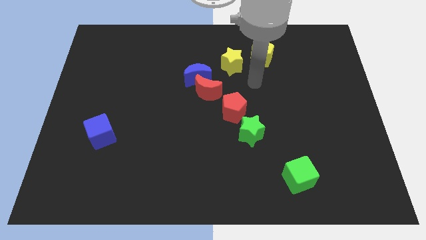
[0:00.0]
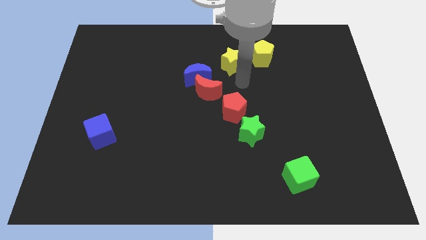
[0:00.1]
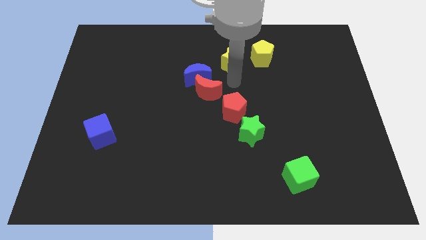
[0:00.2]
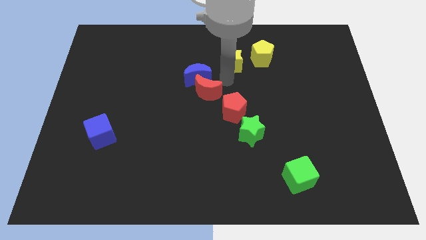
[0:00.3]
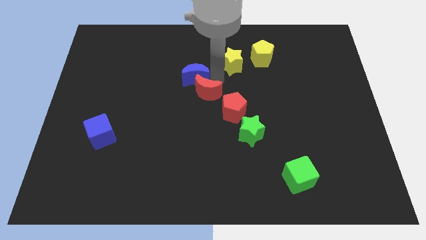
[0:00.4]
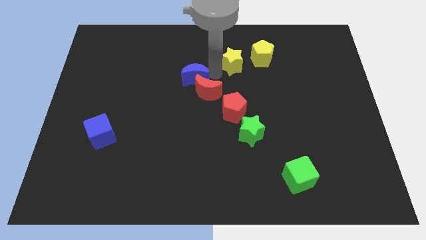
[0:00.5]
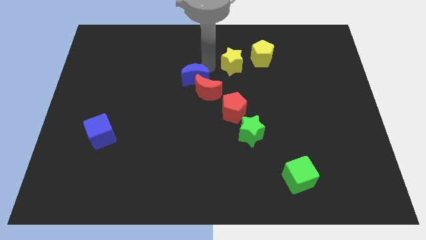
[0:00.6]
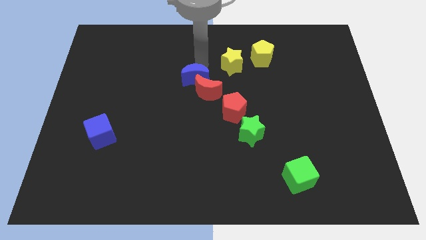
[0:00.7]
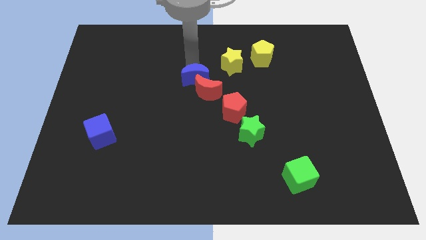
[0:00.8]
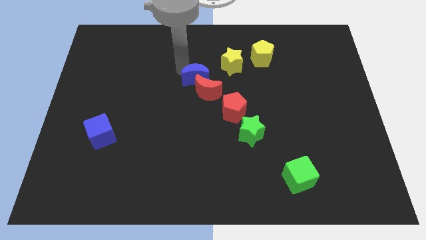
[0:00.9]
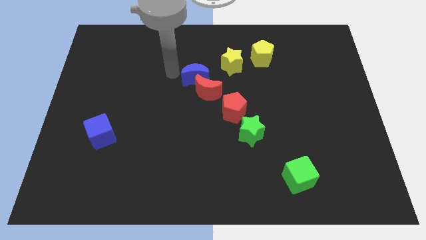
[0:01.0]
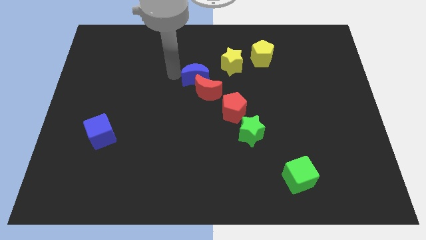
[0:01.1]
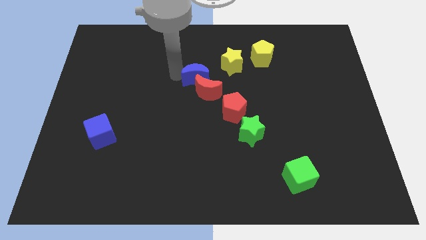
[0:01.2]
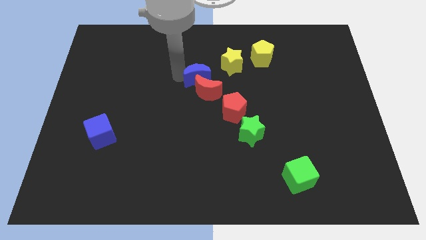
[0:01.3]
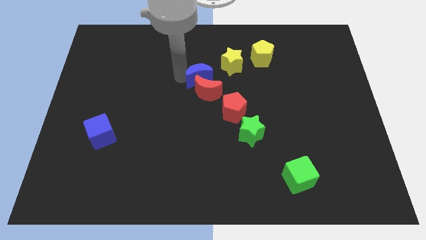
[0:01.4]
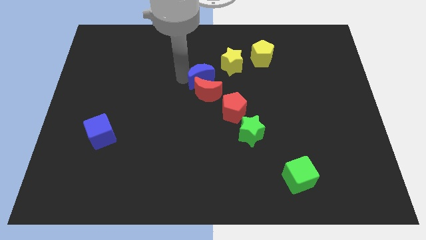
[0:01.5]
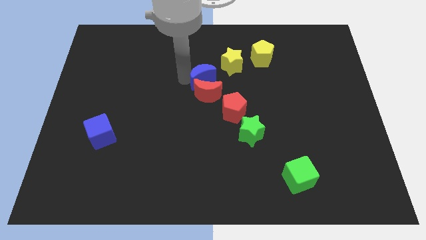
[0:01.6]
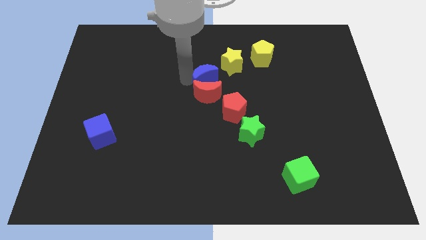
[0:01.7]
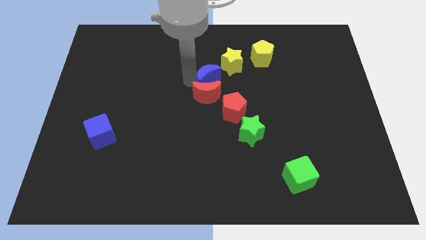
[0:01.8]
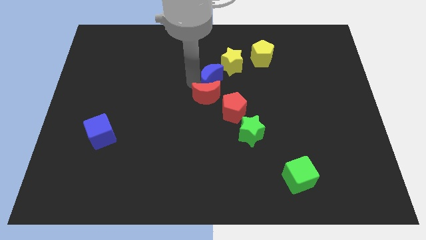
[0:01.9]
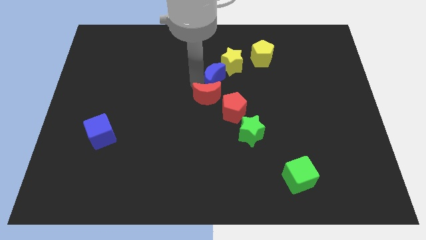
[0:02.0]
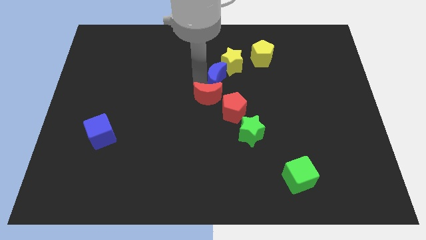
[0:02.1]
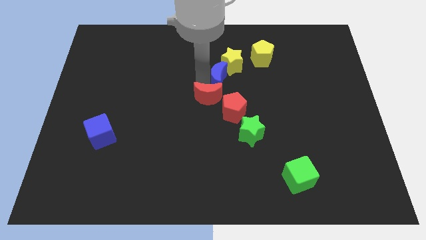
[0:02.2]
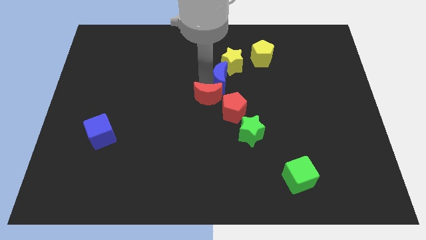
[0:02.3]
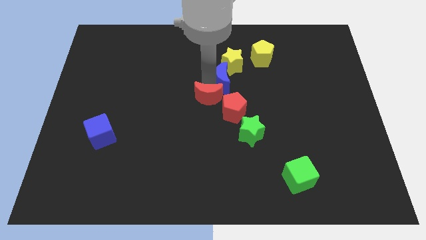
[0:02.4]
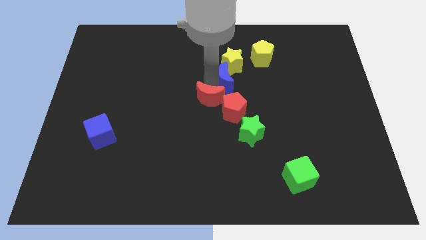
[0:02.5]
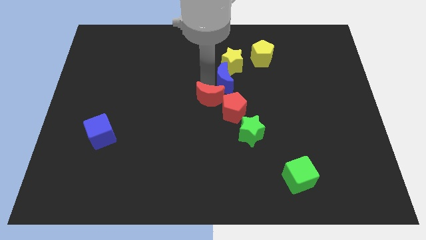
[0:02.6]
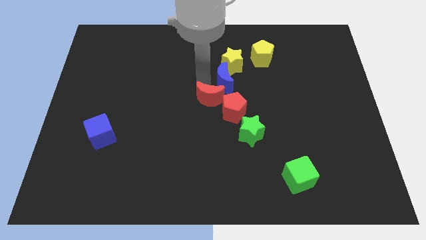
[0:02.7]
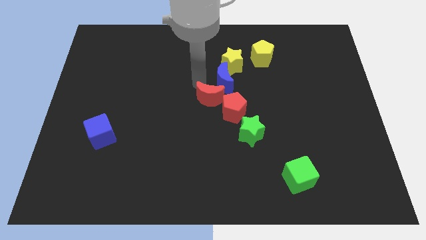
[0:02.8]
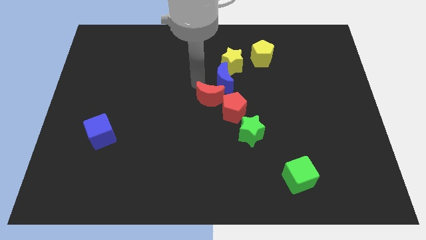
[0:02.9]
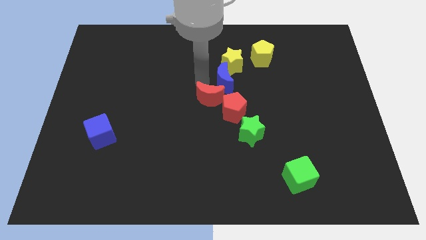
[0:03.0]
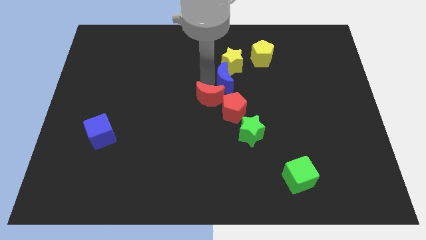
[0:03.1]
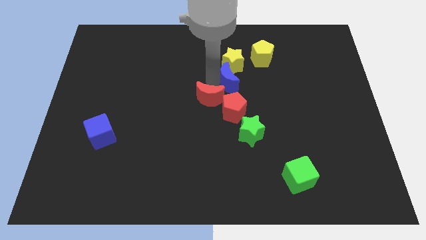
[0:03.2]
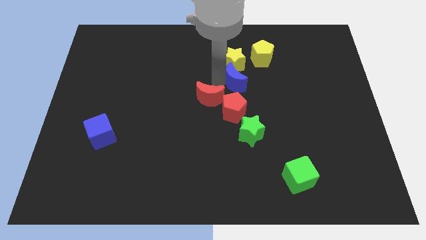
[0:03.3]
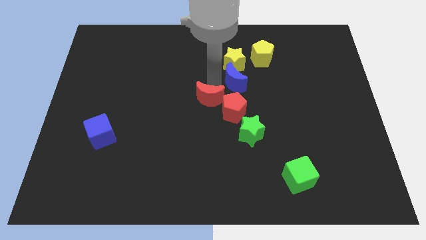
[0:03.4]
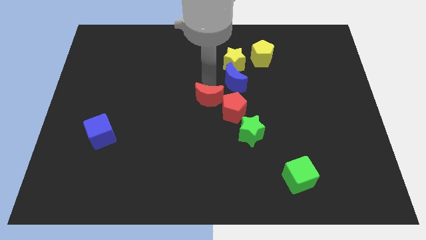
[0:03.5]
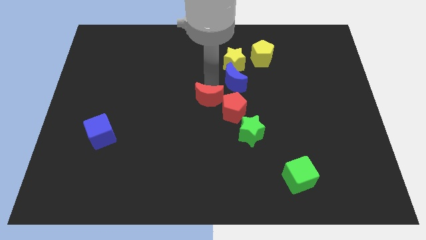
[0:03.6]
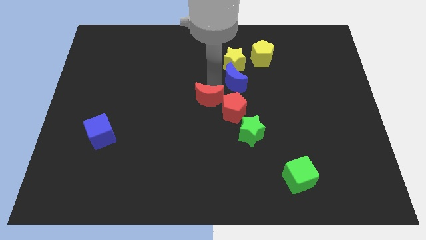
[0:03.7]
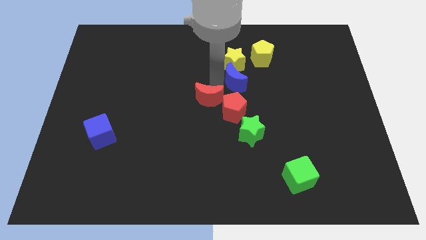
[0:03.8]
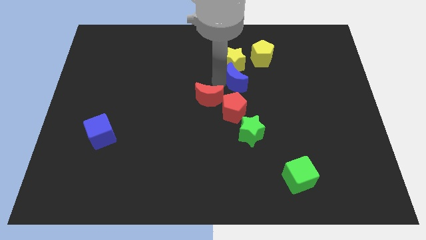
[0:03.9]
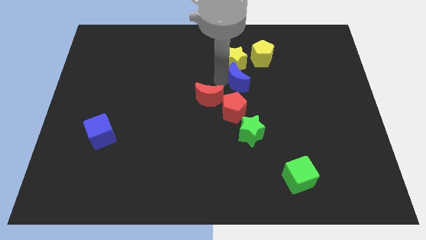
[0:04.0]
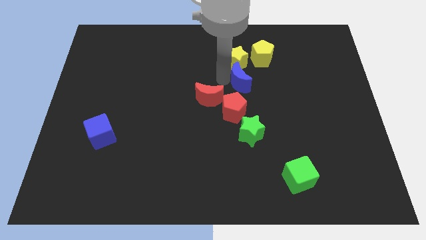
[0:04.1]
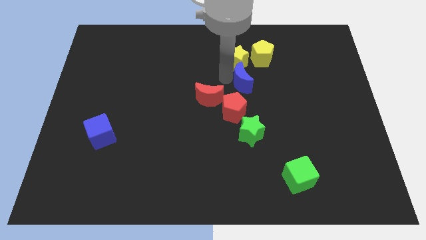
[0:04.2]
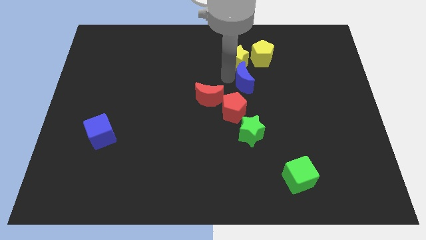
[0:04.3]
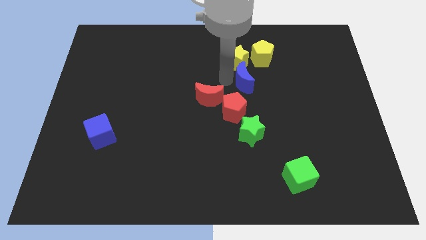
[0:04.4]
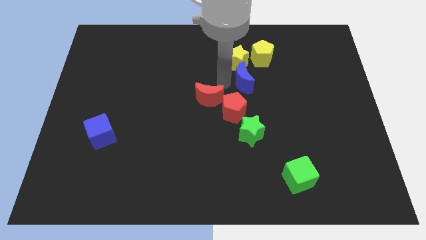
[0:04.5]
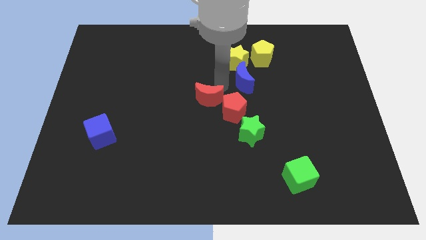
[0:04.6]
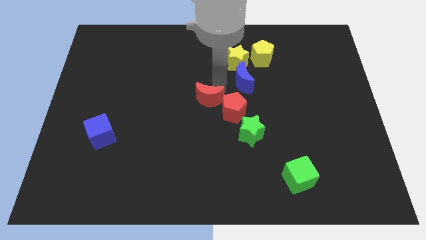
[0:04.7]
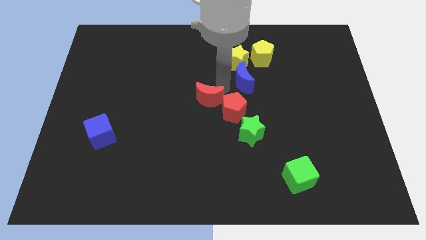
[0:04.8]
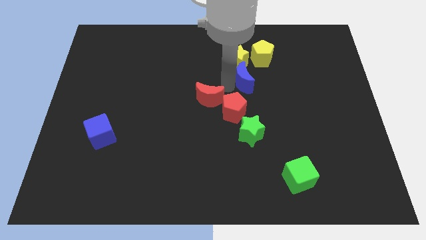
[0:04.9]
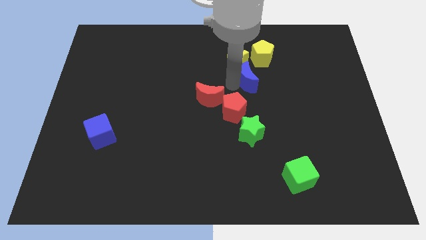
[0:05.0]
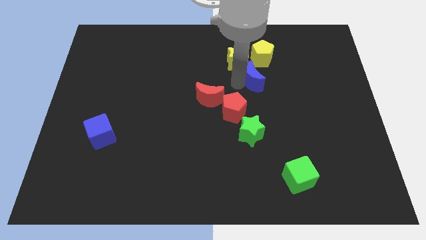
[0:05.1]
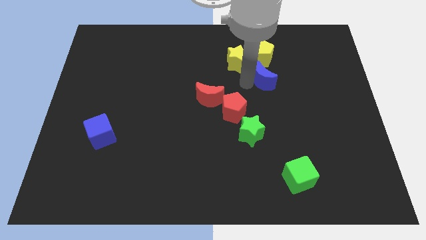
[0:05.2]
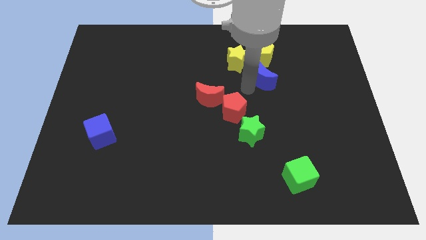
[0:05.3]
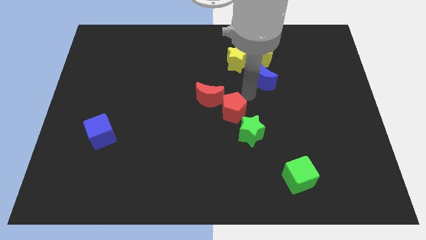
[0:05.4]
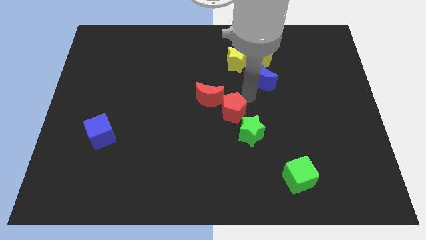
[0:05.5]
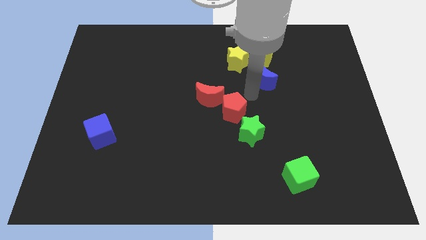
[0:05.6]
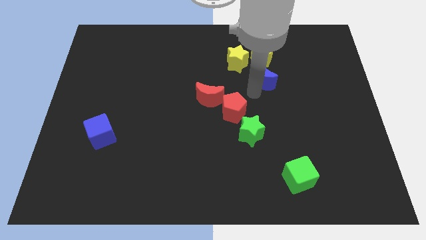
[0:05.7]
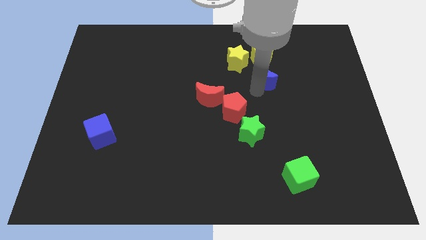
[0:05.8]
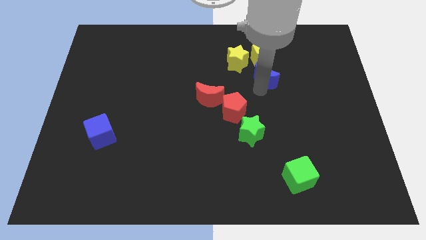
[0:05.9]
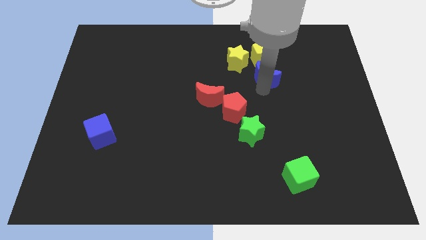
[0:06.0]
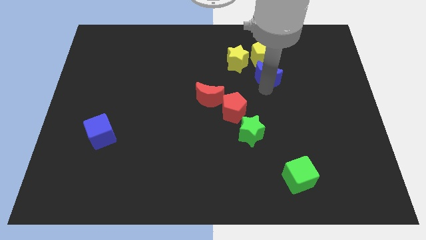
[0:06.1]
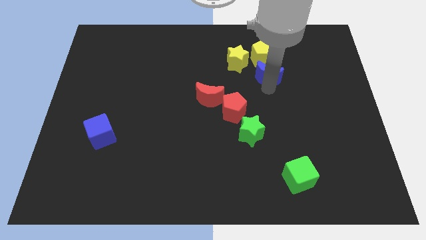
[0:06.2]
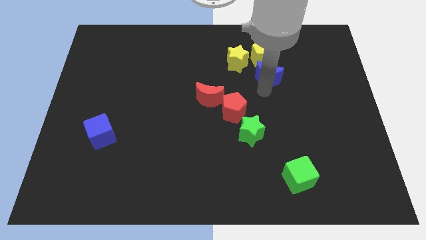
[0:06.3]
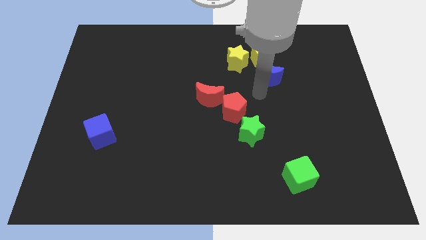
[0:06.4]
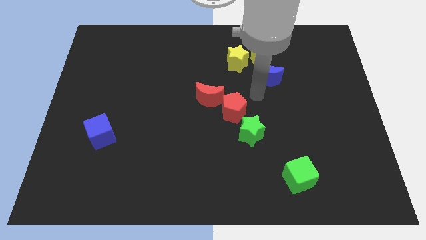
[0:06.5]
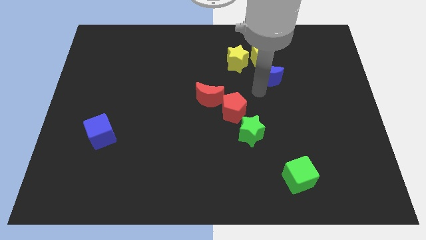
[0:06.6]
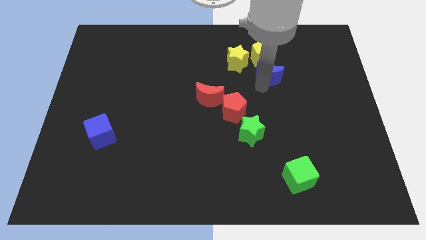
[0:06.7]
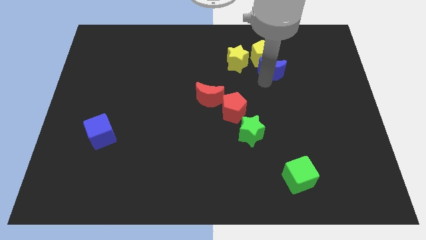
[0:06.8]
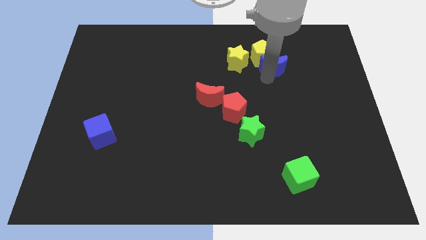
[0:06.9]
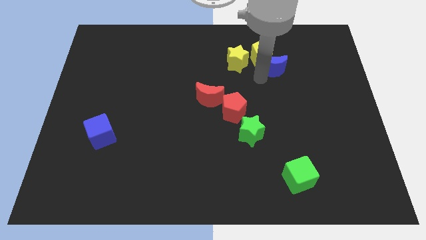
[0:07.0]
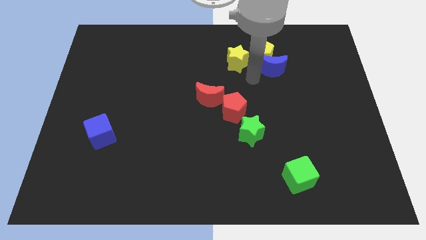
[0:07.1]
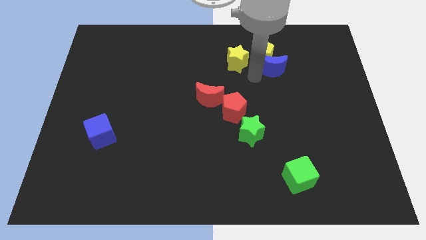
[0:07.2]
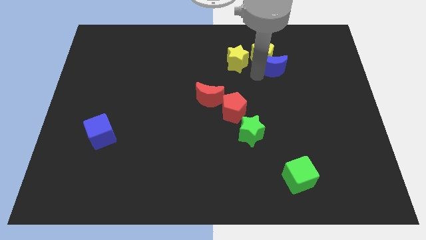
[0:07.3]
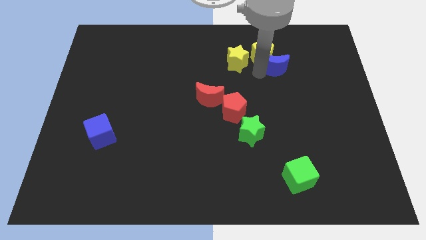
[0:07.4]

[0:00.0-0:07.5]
put the blue moon to the right side of the yellow pentagon
